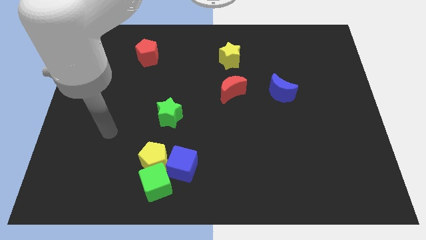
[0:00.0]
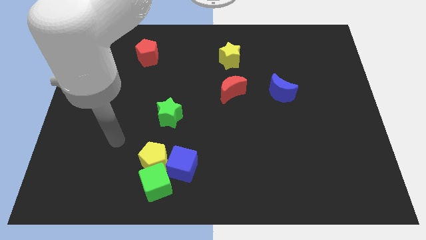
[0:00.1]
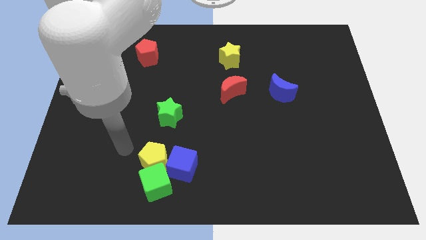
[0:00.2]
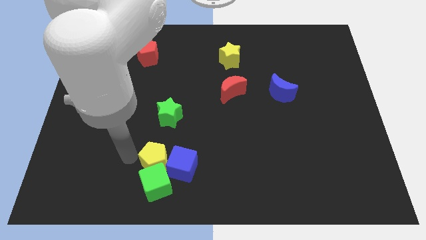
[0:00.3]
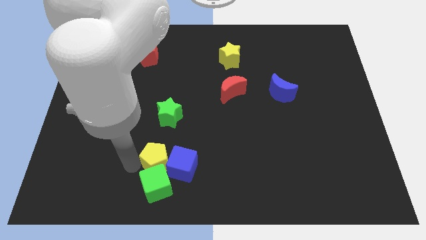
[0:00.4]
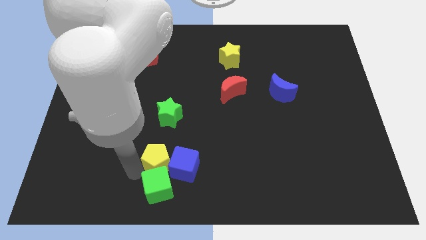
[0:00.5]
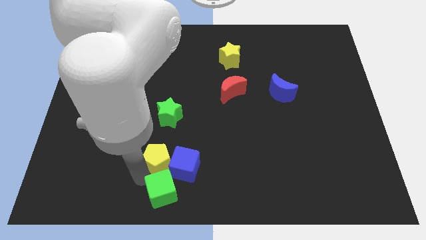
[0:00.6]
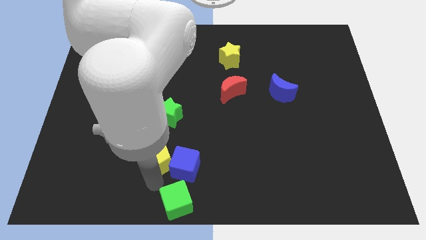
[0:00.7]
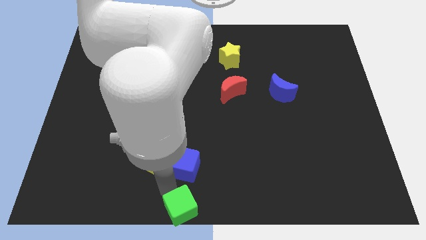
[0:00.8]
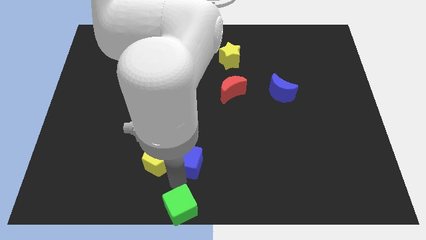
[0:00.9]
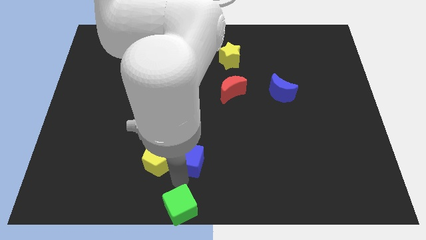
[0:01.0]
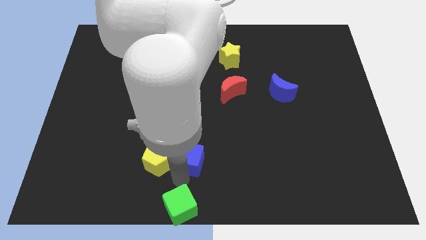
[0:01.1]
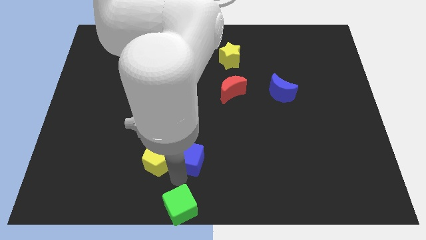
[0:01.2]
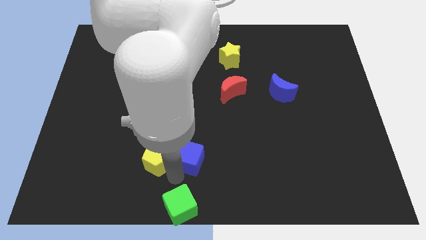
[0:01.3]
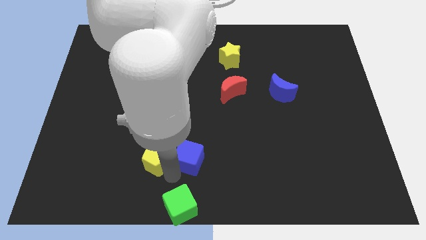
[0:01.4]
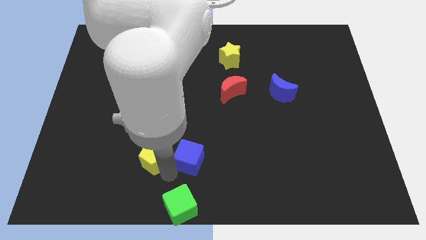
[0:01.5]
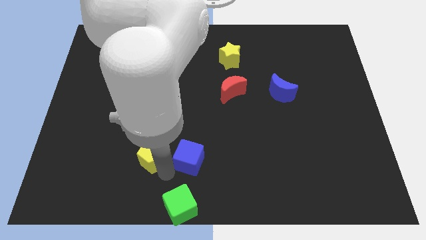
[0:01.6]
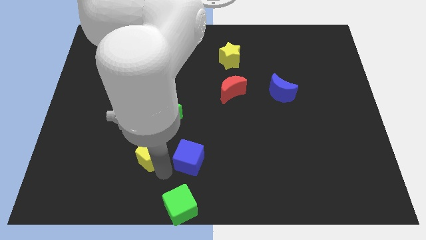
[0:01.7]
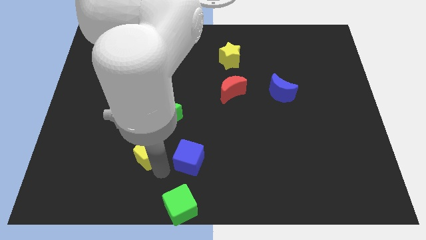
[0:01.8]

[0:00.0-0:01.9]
separate the yellow pentagon from the green cube and blue cube

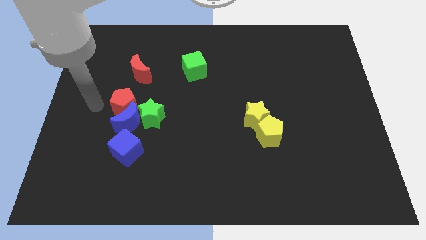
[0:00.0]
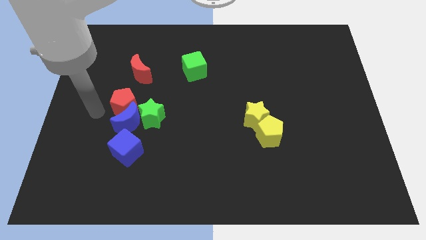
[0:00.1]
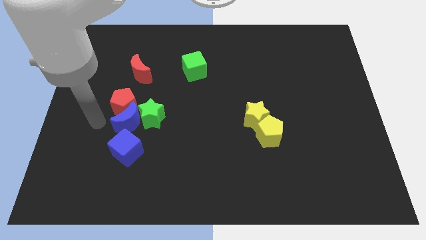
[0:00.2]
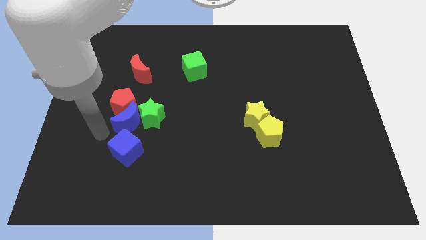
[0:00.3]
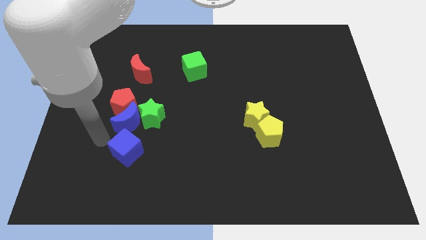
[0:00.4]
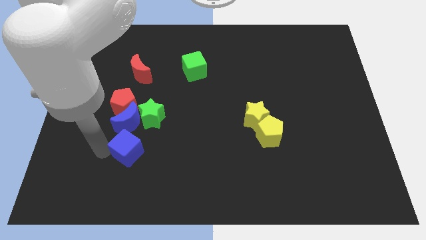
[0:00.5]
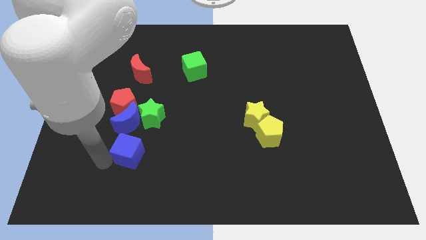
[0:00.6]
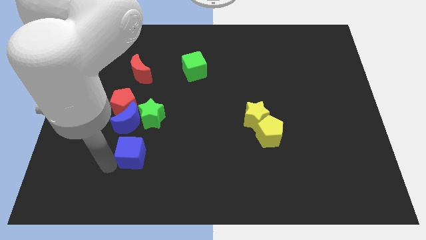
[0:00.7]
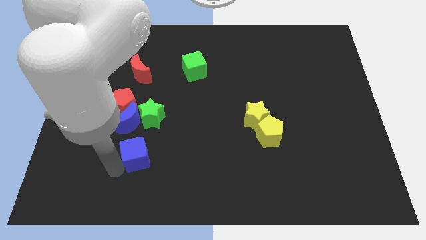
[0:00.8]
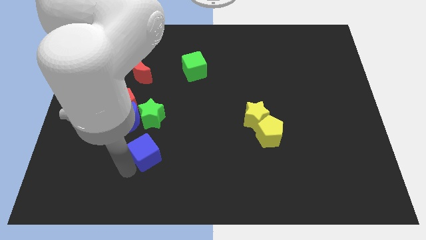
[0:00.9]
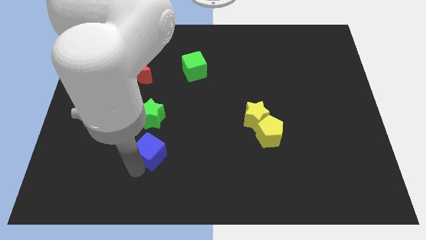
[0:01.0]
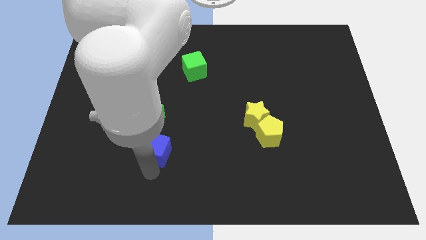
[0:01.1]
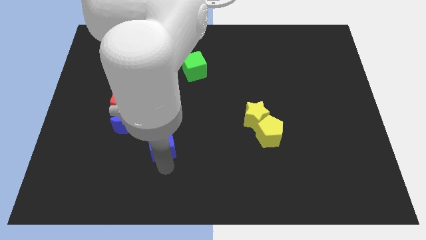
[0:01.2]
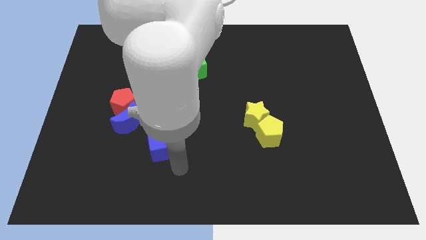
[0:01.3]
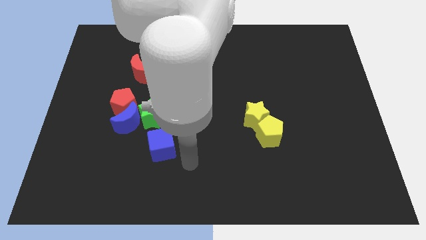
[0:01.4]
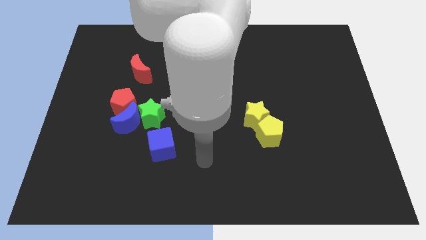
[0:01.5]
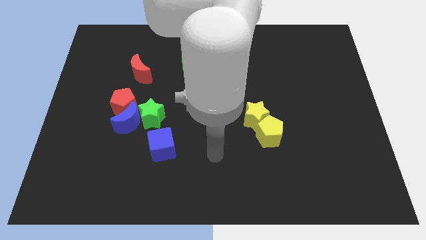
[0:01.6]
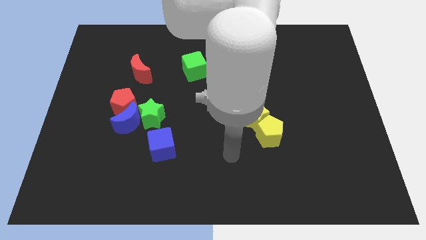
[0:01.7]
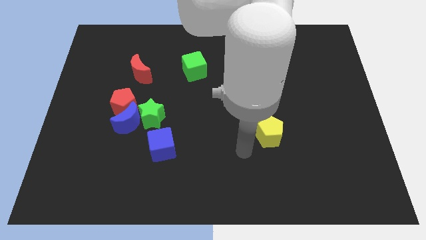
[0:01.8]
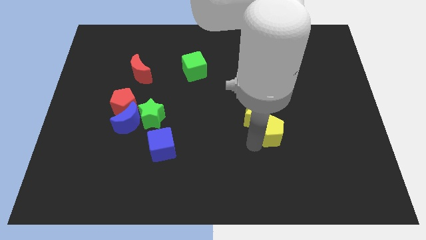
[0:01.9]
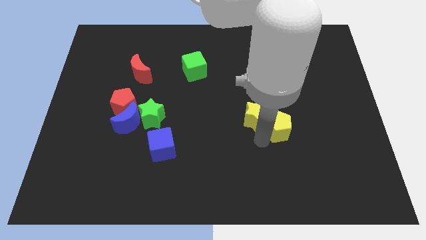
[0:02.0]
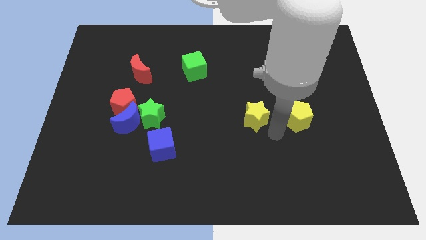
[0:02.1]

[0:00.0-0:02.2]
move the yellow star away from the yellow pentagon

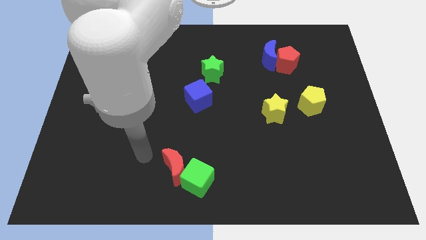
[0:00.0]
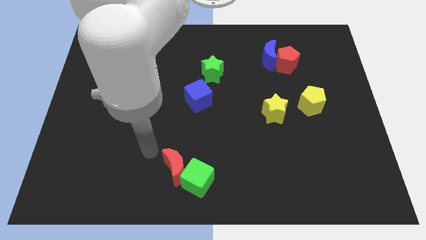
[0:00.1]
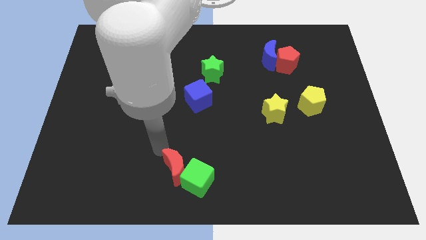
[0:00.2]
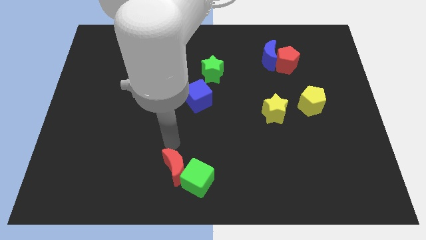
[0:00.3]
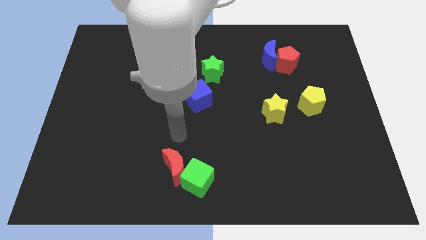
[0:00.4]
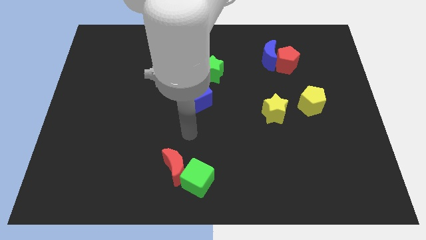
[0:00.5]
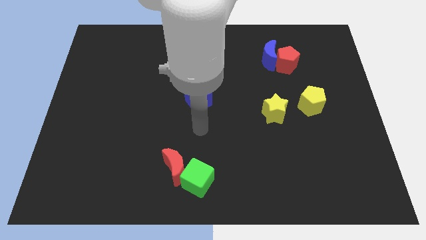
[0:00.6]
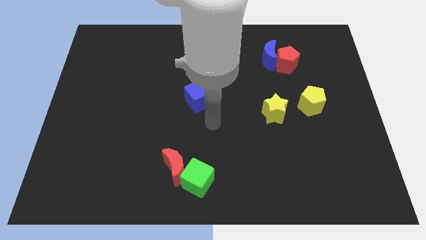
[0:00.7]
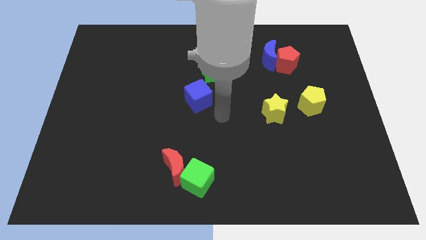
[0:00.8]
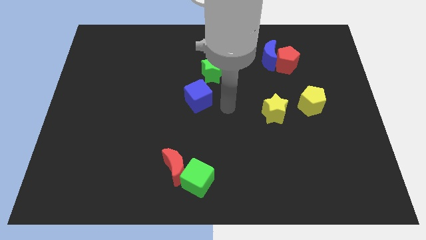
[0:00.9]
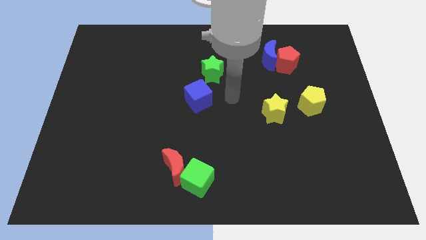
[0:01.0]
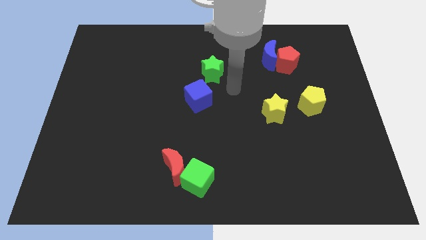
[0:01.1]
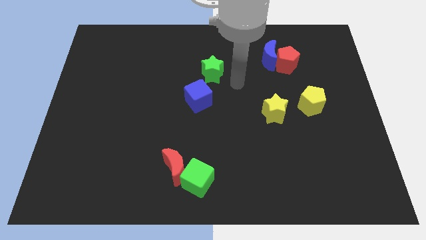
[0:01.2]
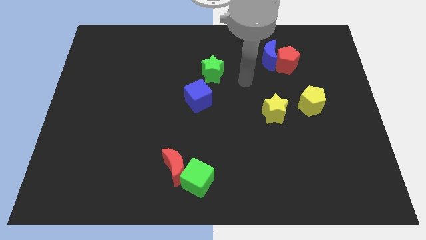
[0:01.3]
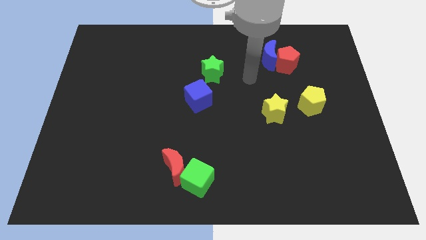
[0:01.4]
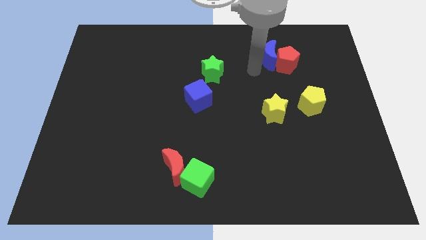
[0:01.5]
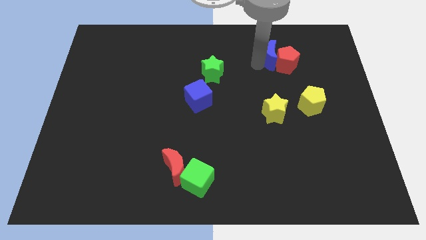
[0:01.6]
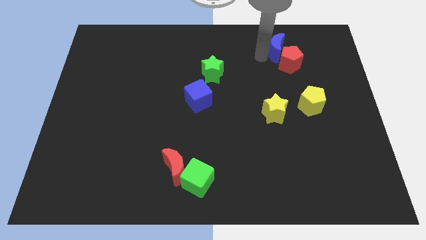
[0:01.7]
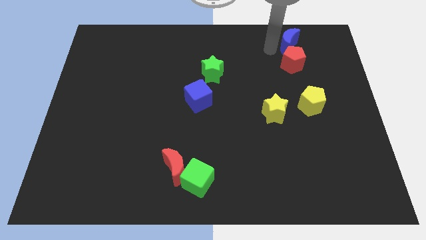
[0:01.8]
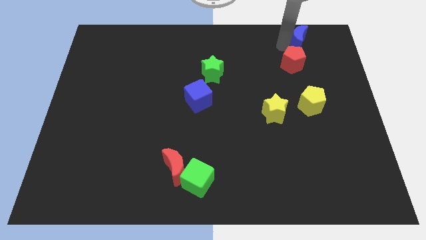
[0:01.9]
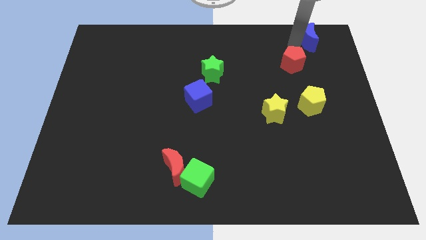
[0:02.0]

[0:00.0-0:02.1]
separate the red pentagon from the blue moon

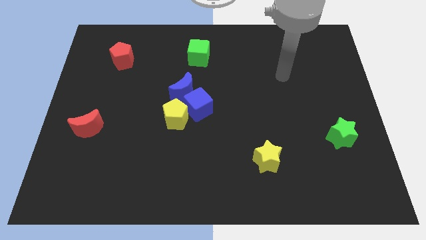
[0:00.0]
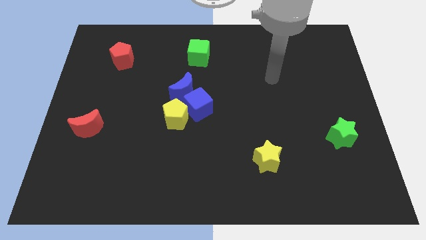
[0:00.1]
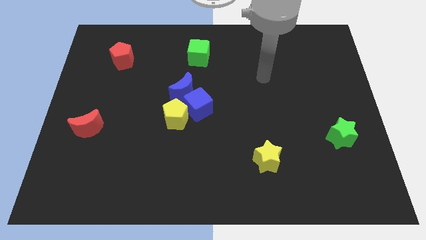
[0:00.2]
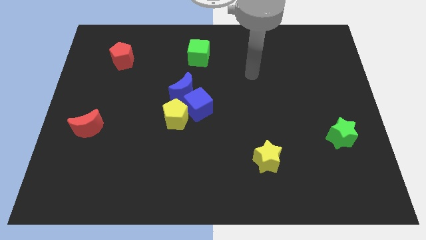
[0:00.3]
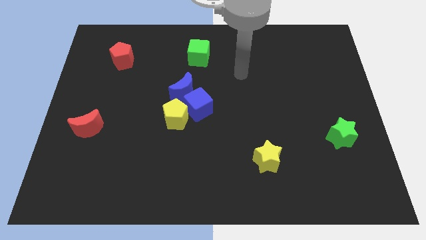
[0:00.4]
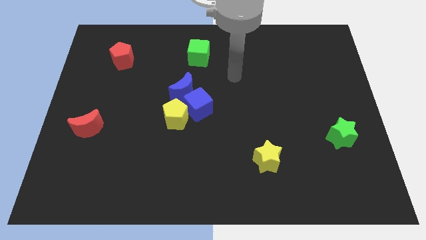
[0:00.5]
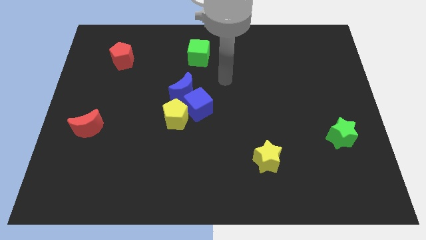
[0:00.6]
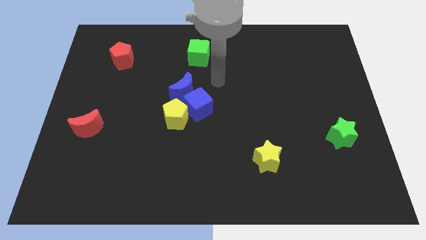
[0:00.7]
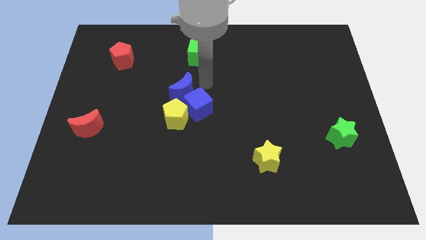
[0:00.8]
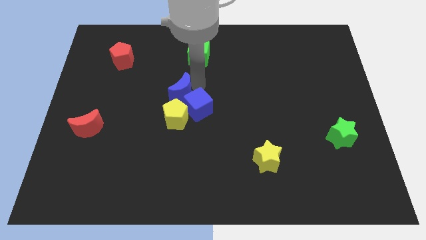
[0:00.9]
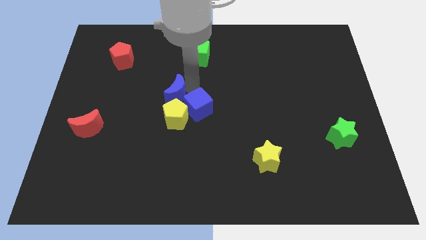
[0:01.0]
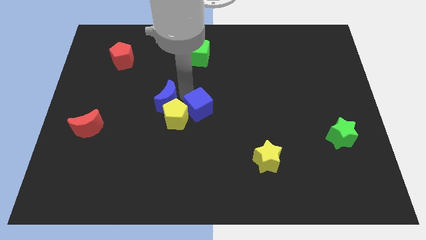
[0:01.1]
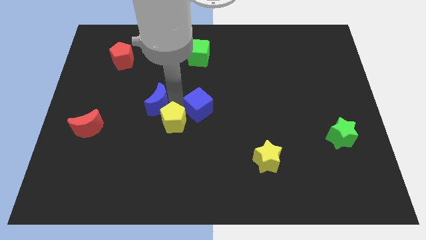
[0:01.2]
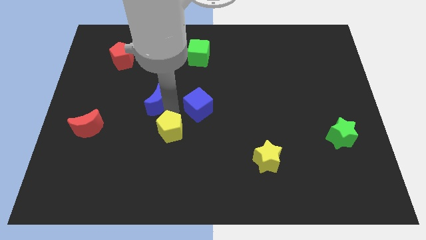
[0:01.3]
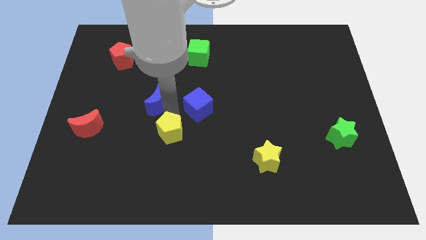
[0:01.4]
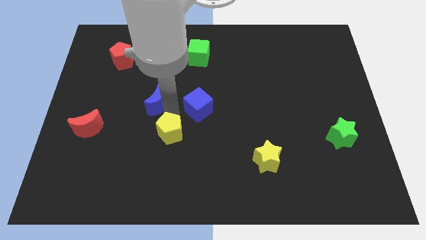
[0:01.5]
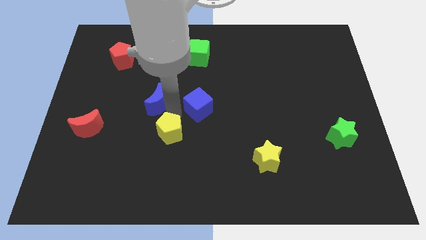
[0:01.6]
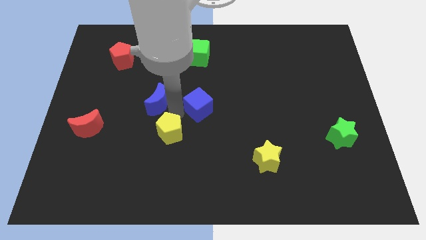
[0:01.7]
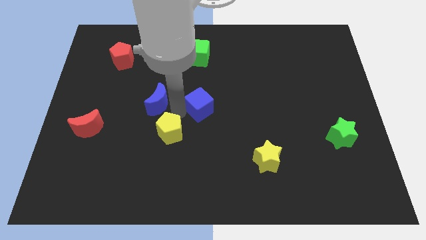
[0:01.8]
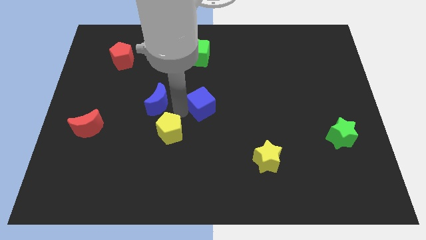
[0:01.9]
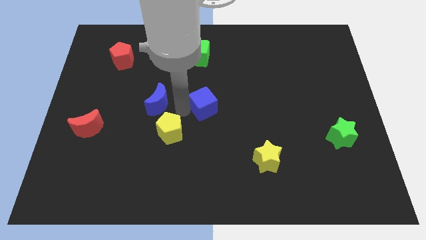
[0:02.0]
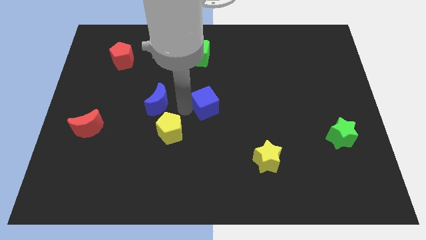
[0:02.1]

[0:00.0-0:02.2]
separate the blue cube from the blue moon and yellow pentagon

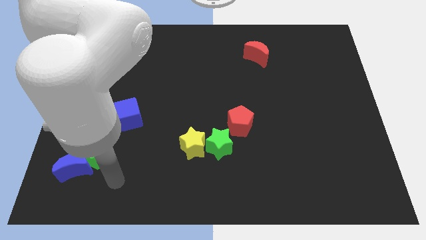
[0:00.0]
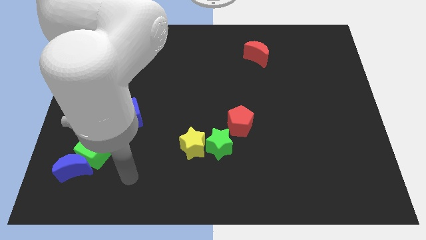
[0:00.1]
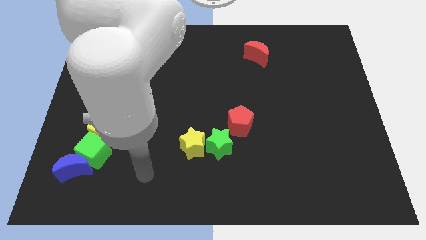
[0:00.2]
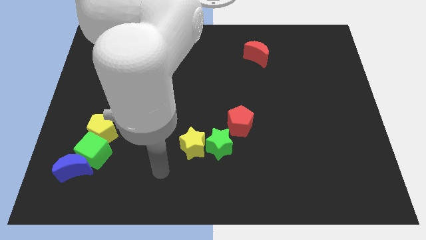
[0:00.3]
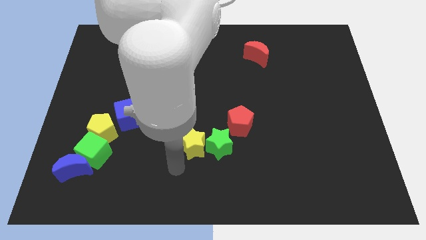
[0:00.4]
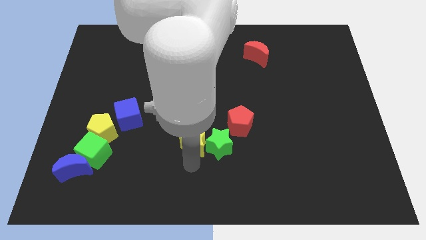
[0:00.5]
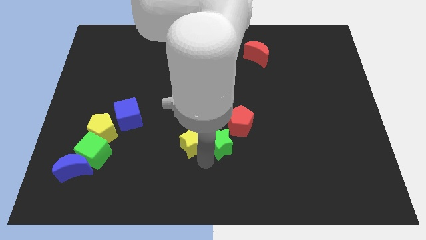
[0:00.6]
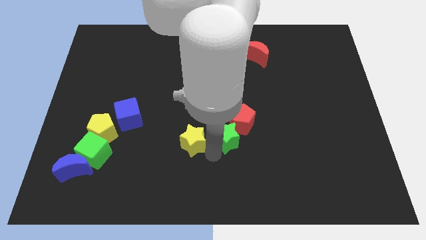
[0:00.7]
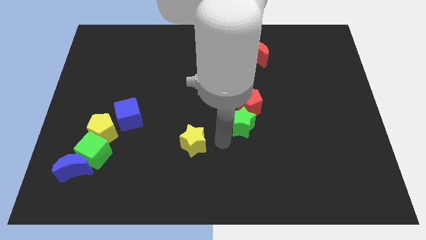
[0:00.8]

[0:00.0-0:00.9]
pull the yellow star apart from the green star
